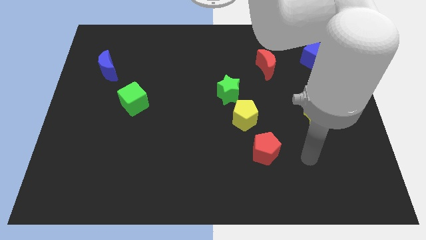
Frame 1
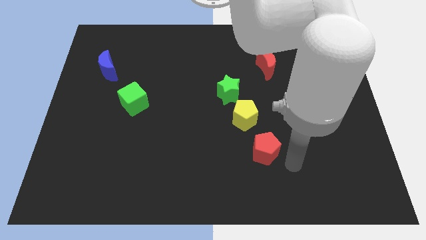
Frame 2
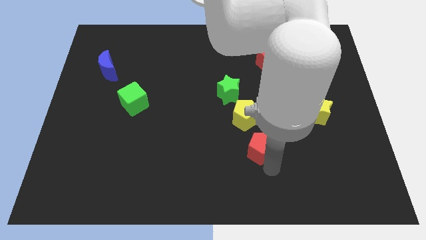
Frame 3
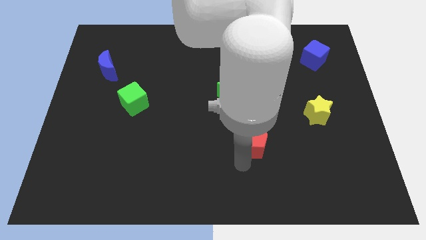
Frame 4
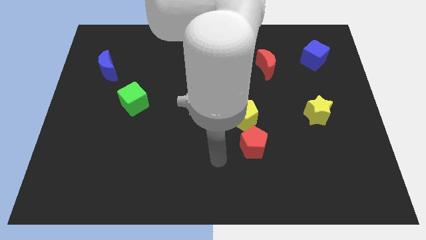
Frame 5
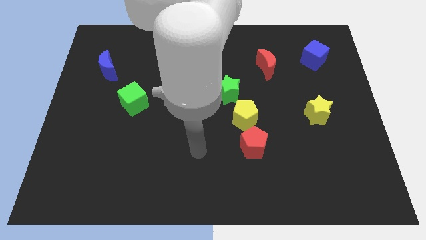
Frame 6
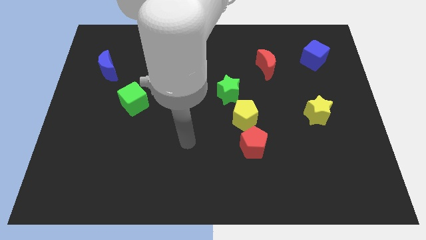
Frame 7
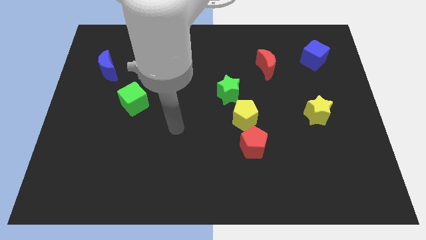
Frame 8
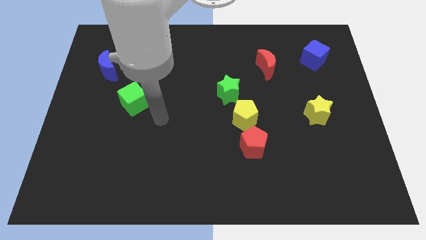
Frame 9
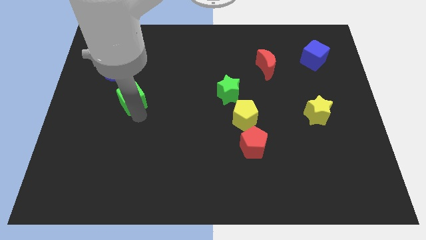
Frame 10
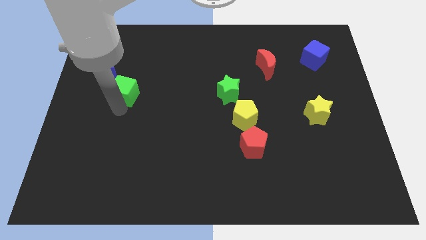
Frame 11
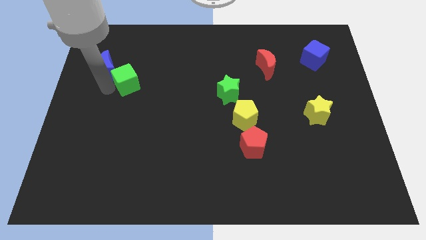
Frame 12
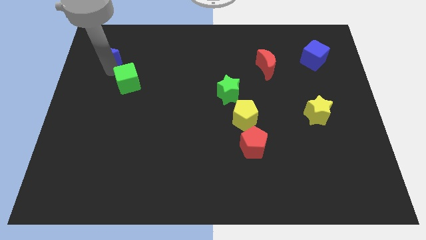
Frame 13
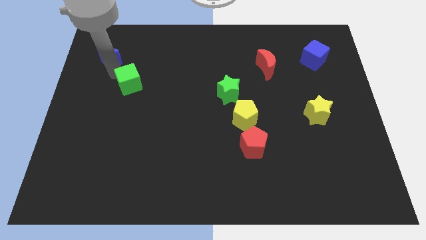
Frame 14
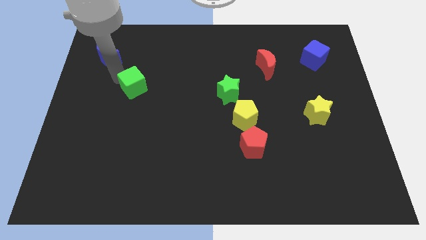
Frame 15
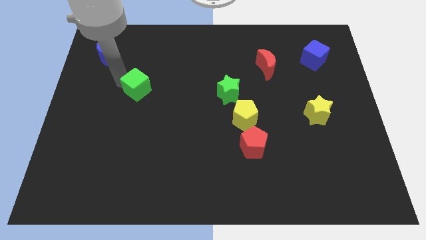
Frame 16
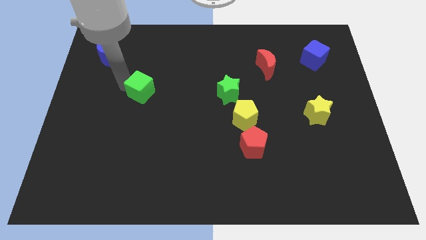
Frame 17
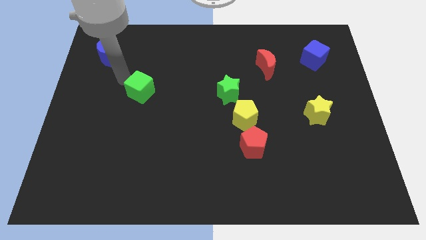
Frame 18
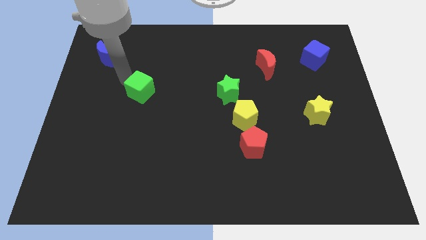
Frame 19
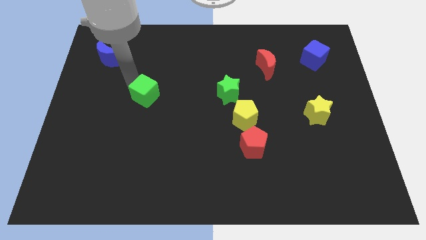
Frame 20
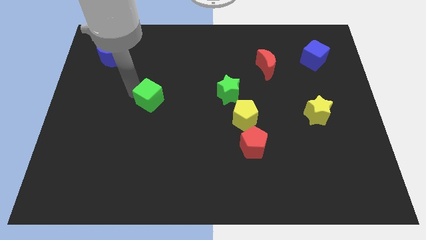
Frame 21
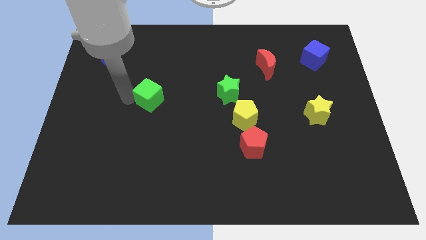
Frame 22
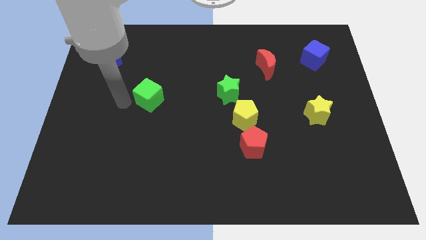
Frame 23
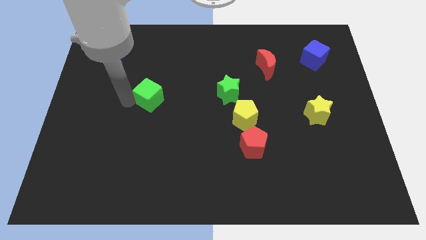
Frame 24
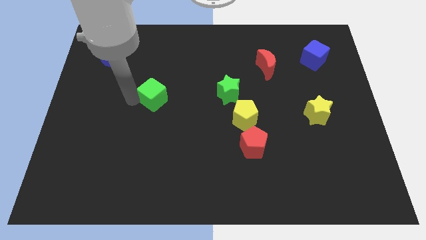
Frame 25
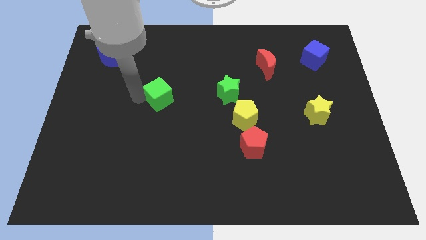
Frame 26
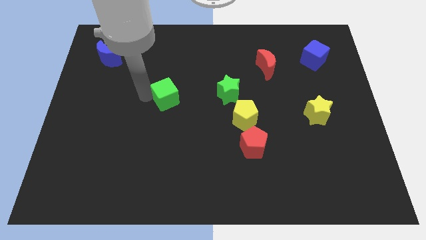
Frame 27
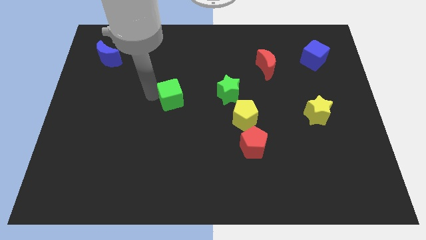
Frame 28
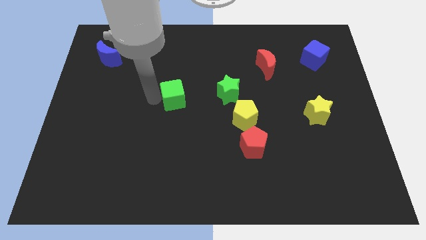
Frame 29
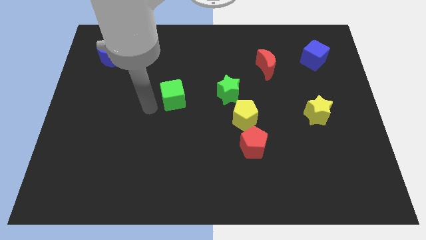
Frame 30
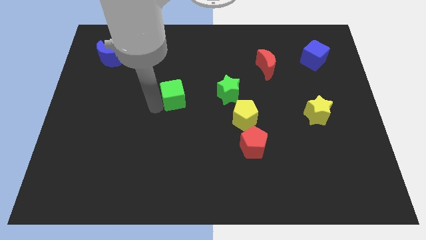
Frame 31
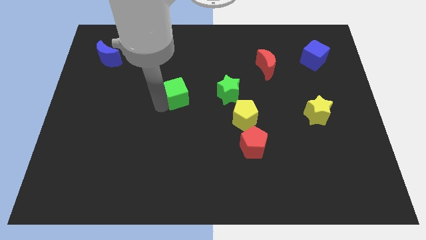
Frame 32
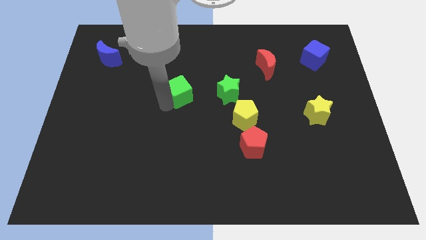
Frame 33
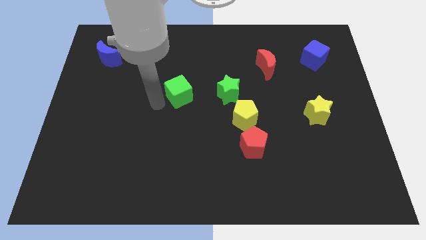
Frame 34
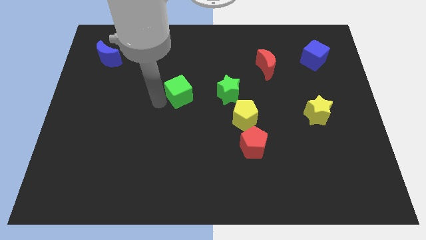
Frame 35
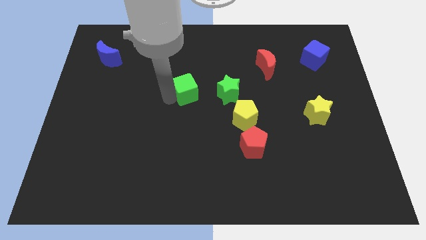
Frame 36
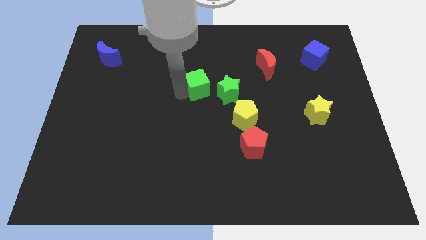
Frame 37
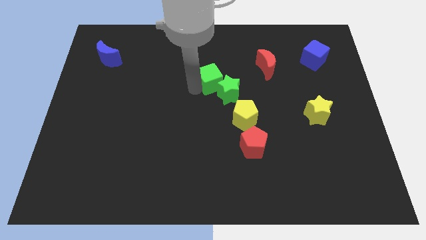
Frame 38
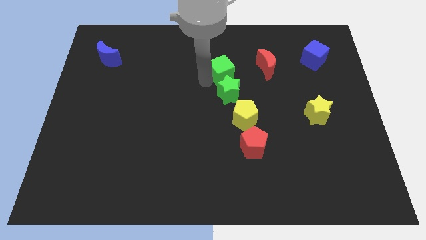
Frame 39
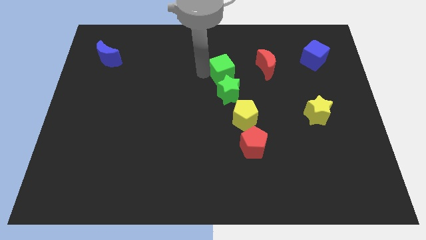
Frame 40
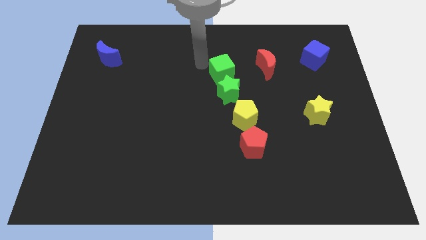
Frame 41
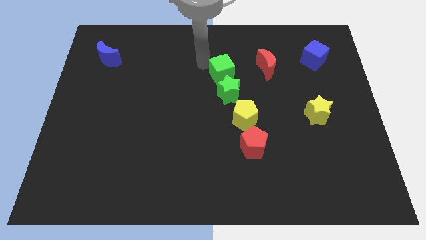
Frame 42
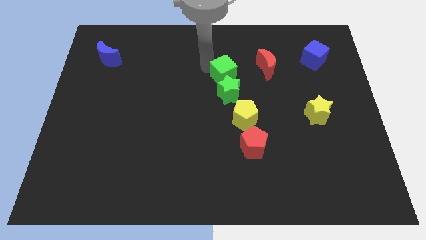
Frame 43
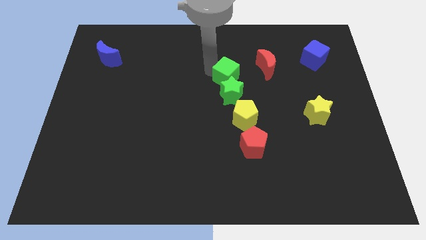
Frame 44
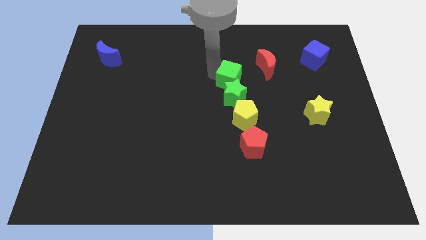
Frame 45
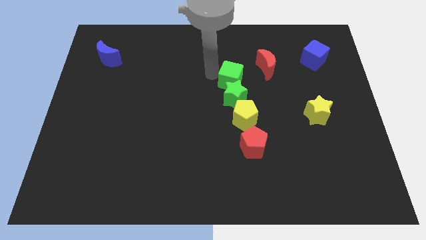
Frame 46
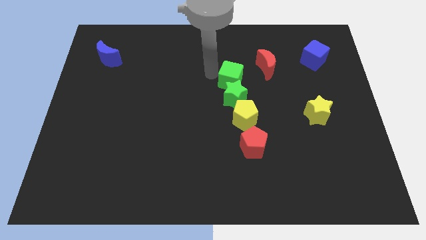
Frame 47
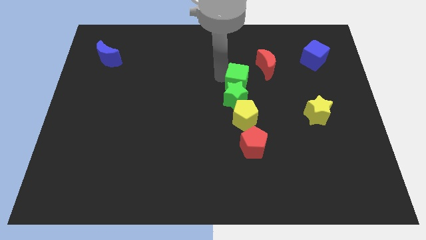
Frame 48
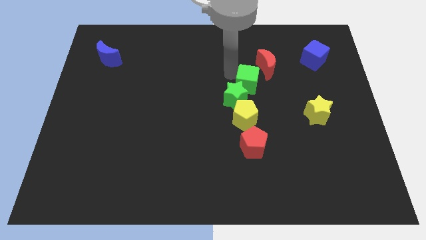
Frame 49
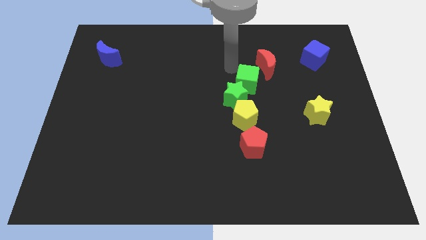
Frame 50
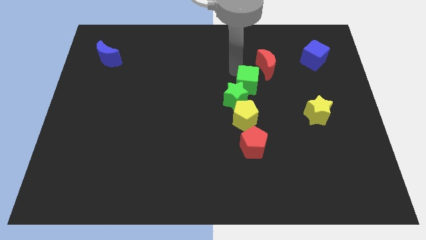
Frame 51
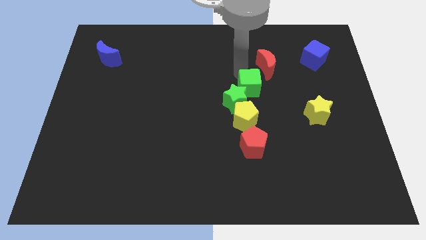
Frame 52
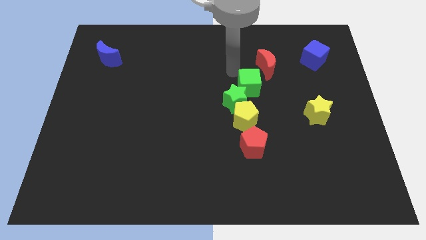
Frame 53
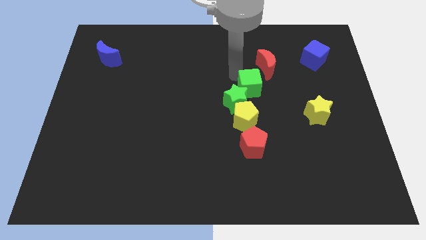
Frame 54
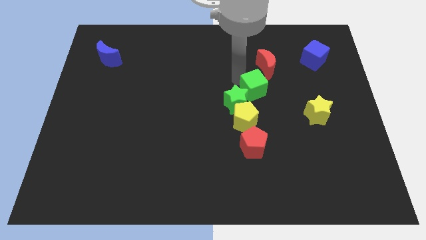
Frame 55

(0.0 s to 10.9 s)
move the green cube to the top right of the yellow pentagon

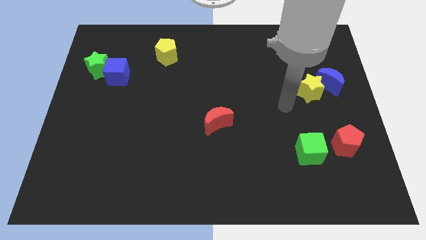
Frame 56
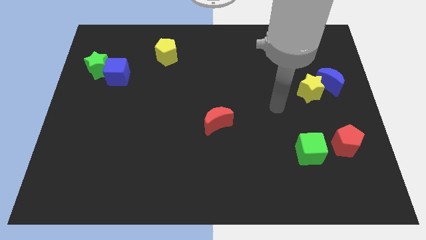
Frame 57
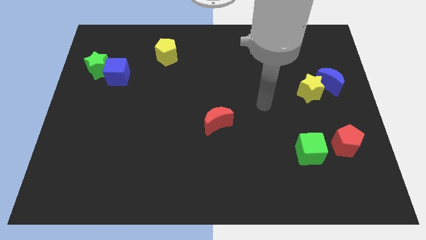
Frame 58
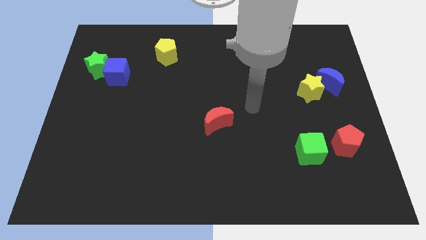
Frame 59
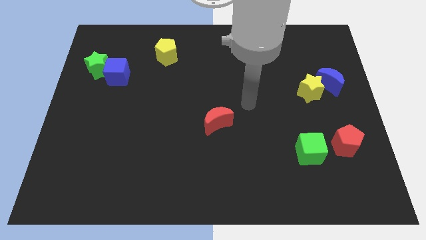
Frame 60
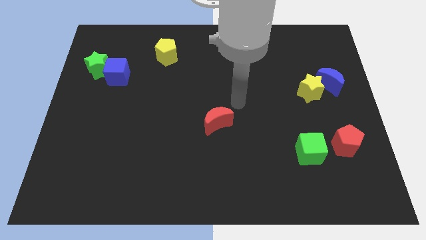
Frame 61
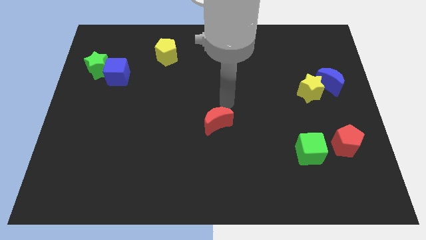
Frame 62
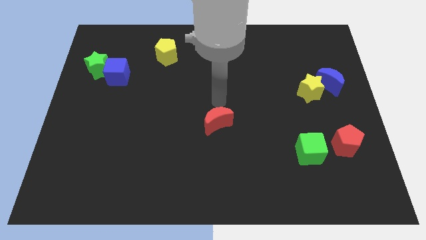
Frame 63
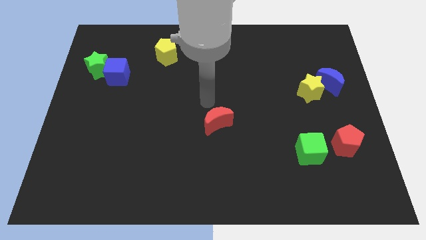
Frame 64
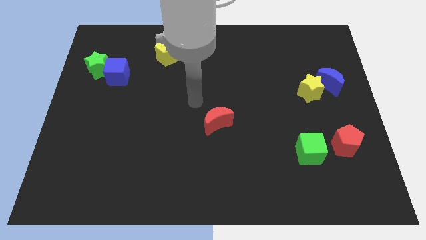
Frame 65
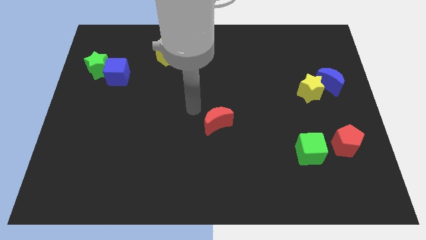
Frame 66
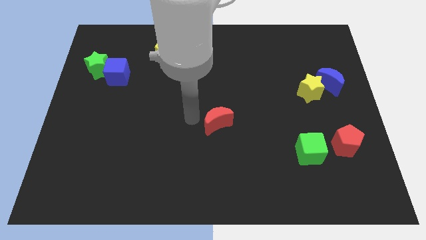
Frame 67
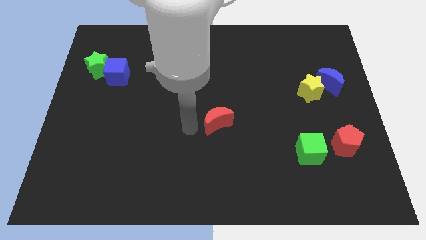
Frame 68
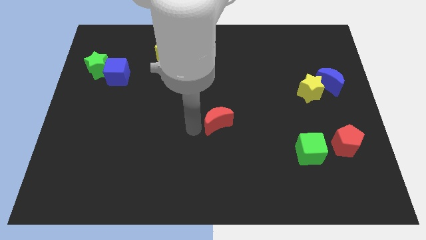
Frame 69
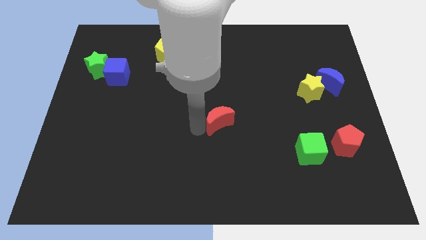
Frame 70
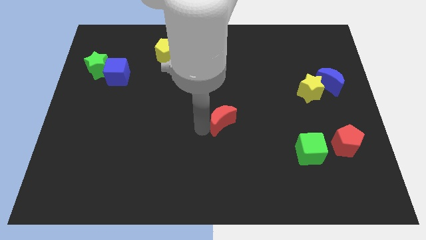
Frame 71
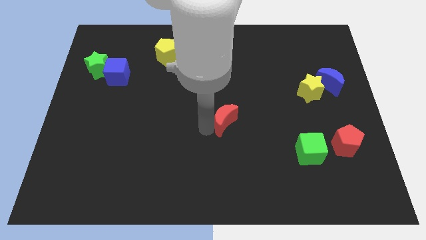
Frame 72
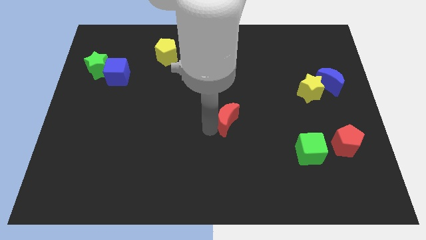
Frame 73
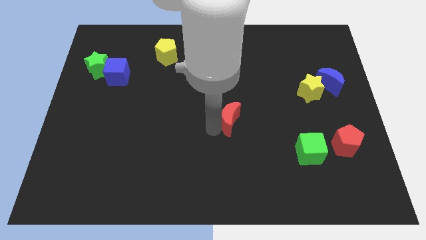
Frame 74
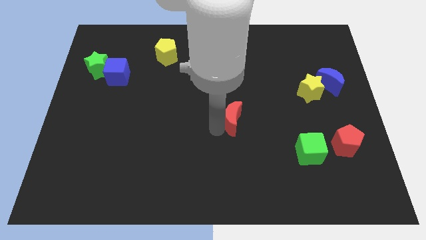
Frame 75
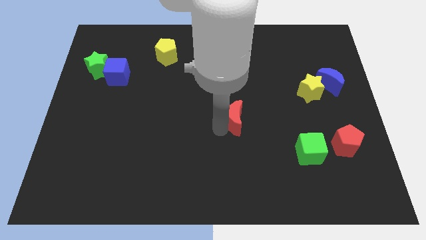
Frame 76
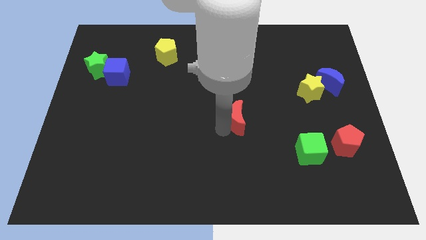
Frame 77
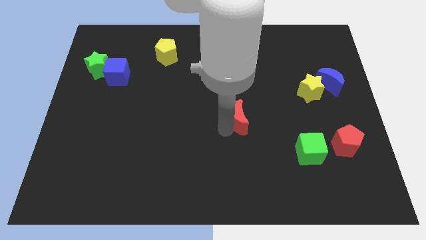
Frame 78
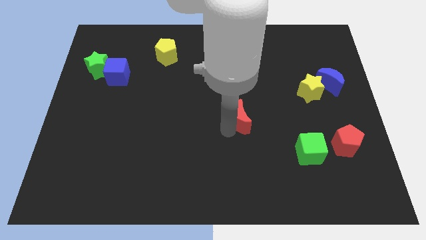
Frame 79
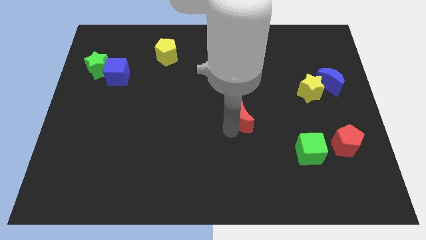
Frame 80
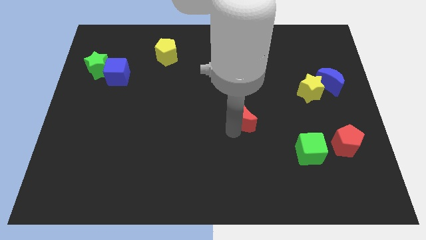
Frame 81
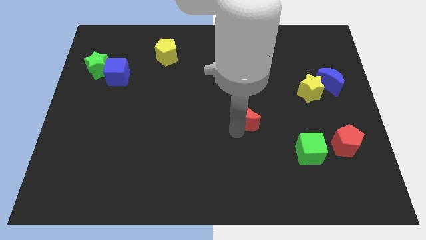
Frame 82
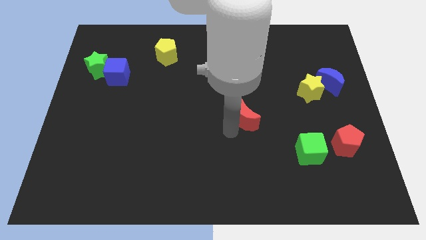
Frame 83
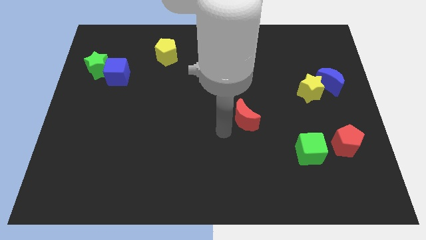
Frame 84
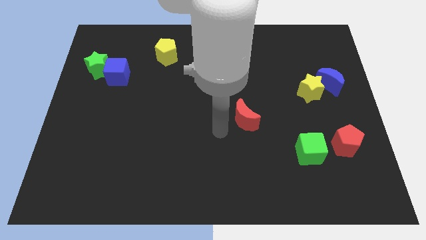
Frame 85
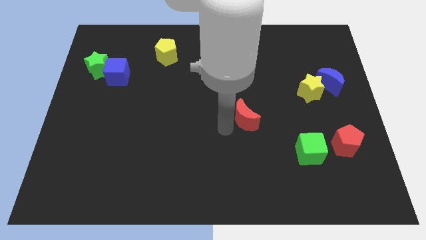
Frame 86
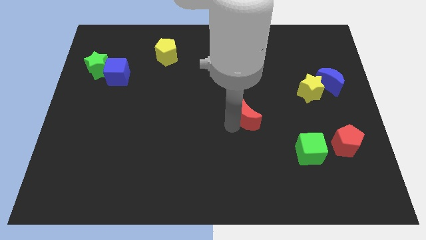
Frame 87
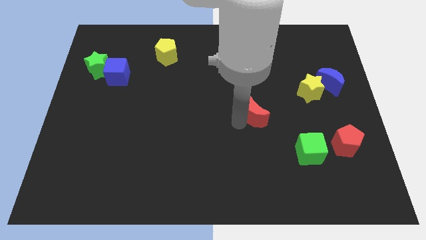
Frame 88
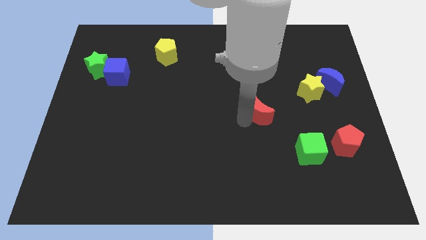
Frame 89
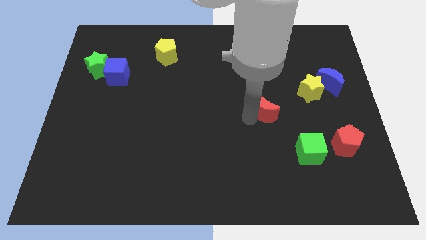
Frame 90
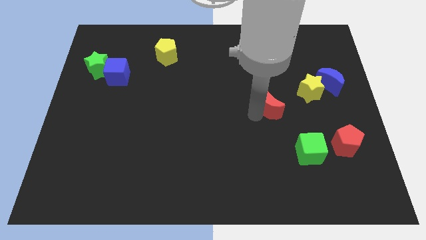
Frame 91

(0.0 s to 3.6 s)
put the red moon diagonally down and to the left of the yellow star
